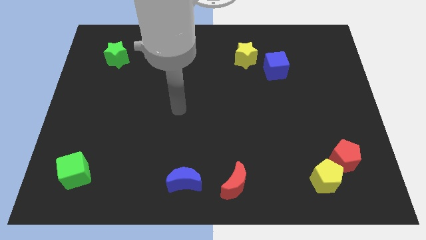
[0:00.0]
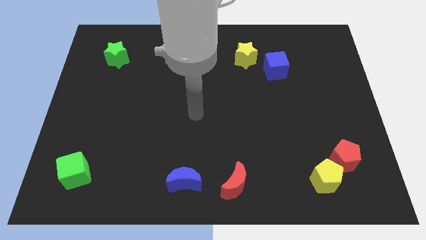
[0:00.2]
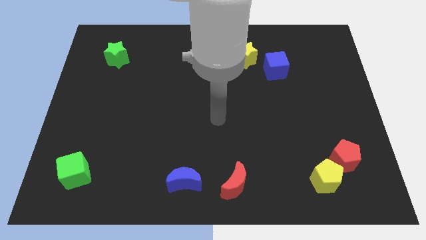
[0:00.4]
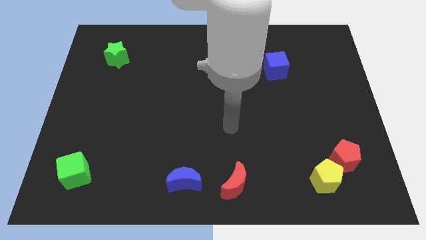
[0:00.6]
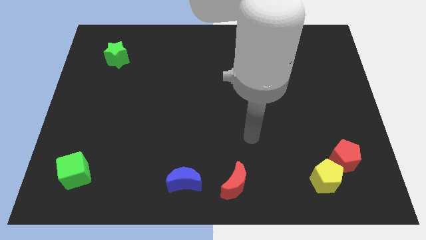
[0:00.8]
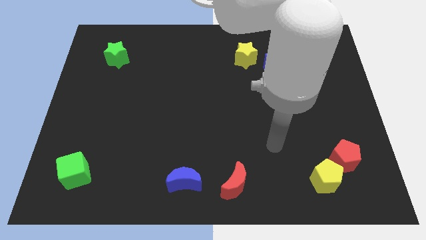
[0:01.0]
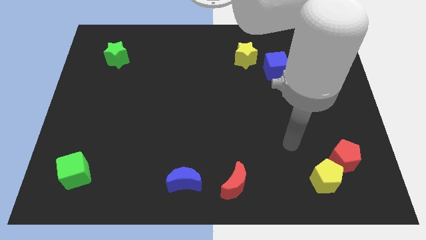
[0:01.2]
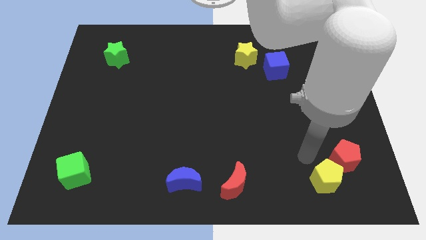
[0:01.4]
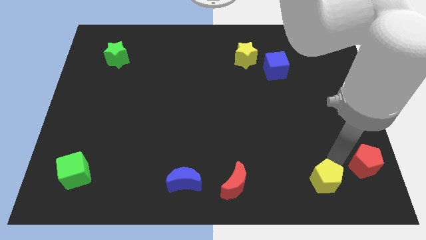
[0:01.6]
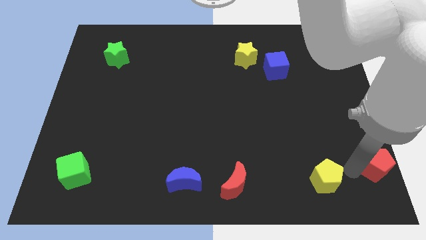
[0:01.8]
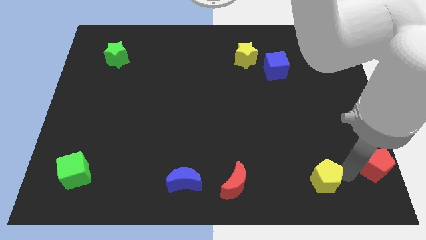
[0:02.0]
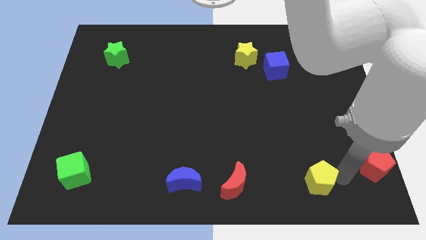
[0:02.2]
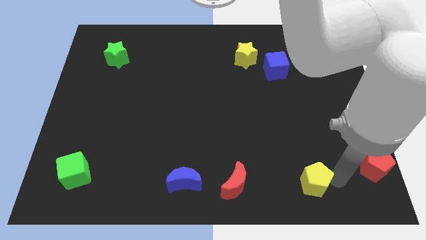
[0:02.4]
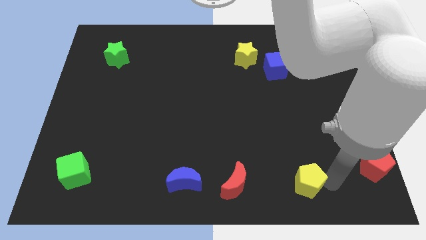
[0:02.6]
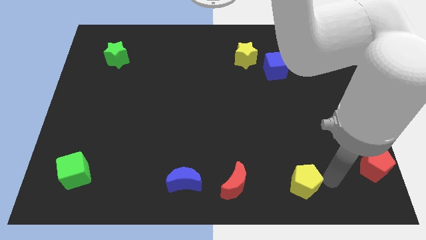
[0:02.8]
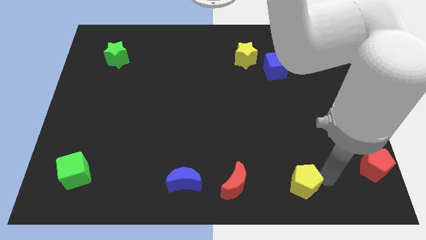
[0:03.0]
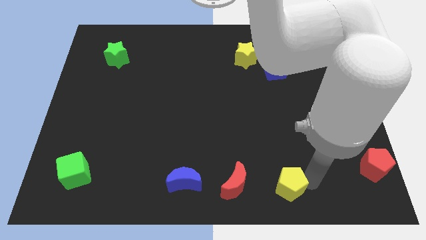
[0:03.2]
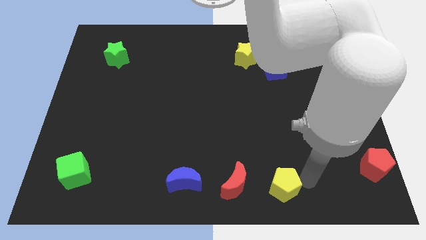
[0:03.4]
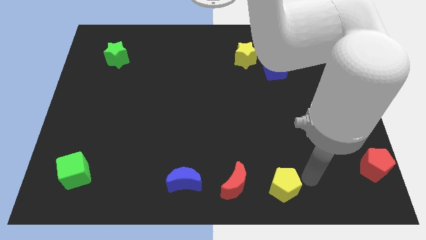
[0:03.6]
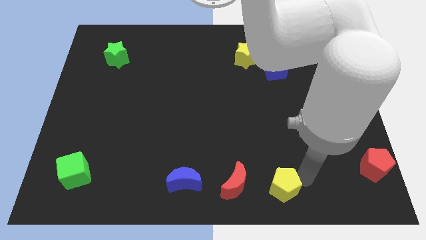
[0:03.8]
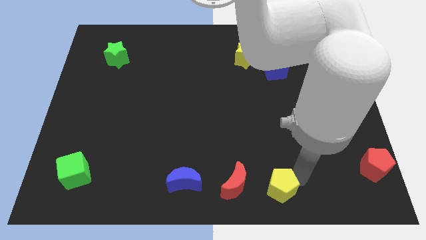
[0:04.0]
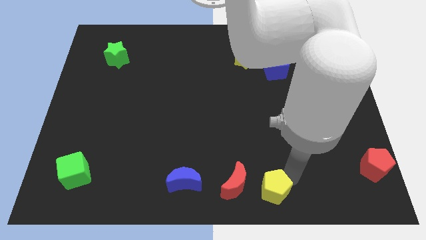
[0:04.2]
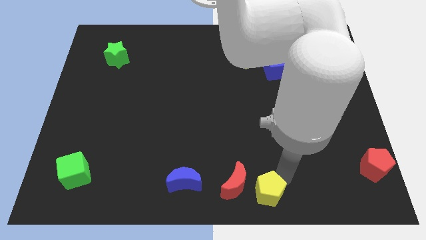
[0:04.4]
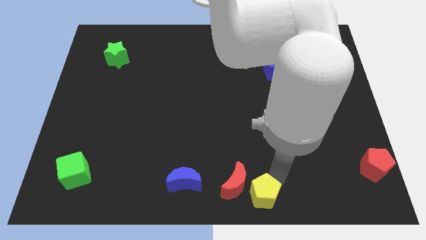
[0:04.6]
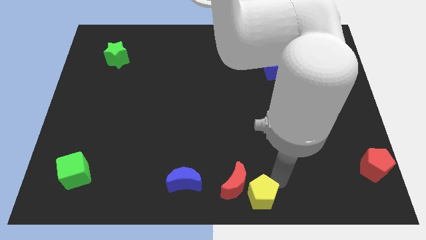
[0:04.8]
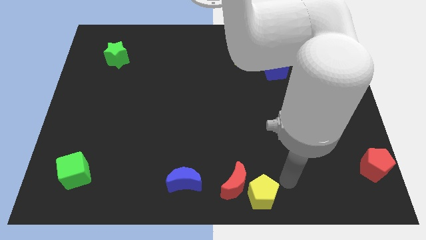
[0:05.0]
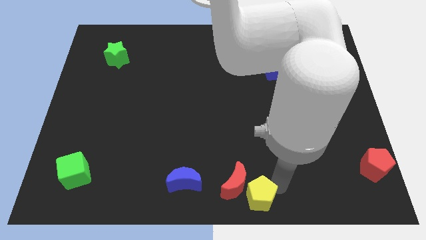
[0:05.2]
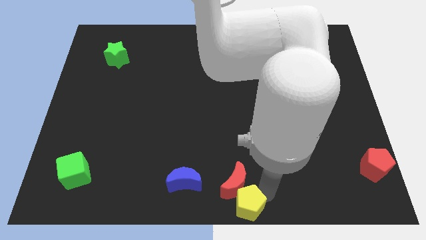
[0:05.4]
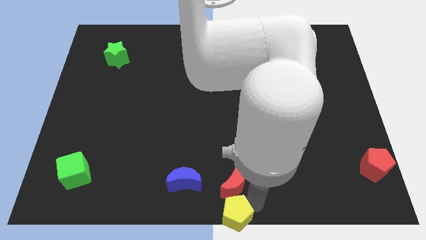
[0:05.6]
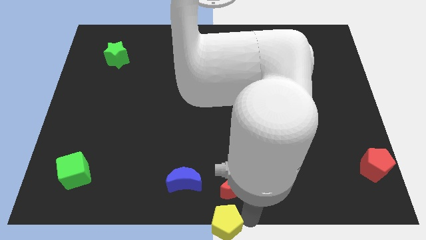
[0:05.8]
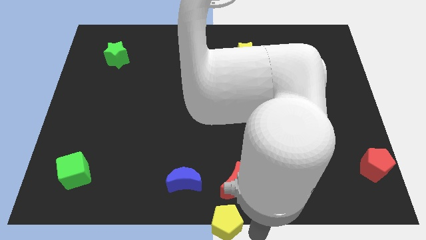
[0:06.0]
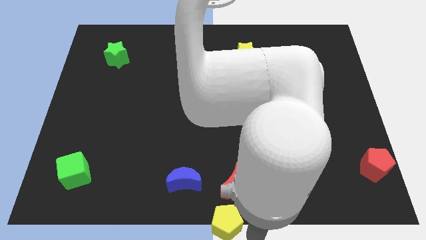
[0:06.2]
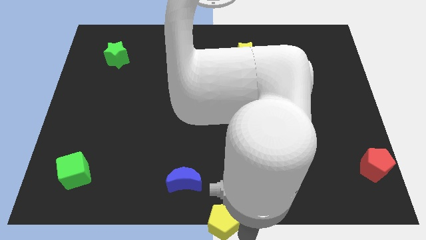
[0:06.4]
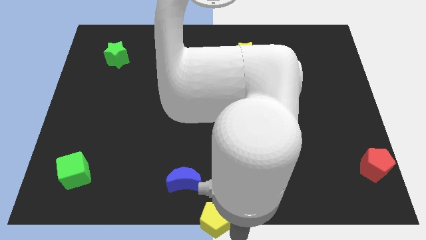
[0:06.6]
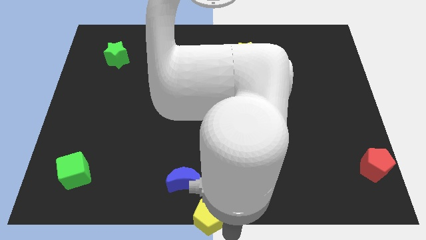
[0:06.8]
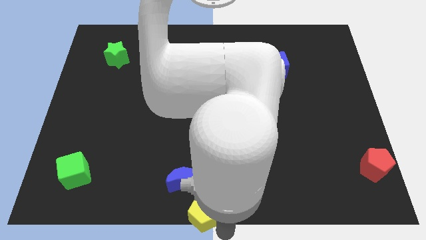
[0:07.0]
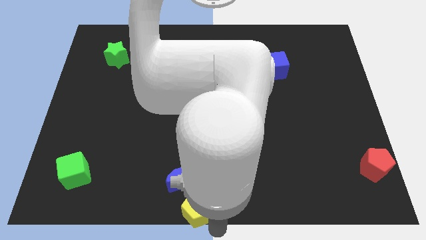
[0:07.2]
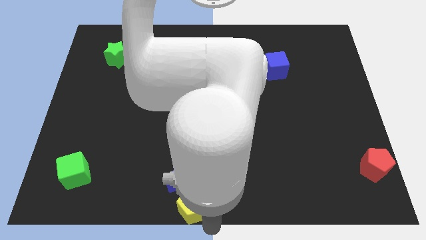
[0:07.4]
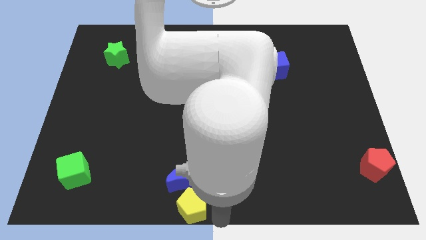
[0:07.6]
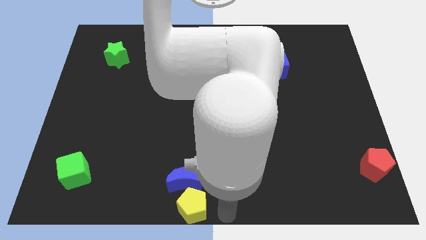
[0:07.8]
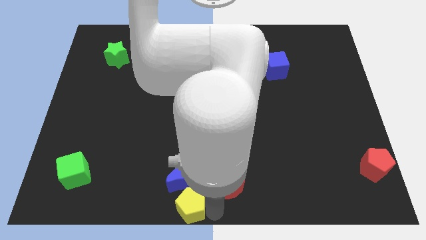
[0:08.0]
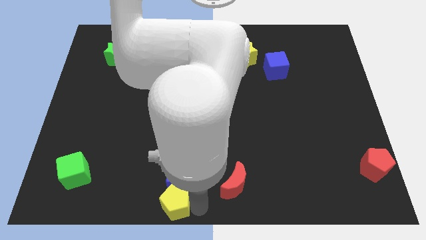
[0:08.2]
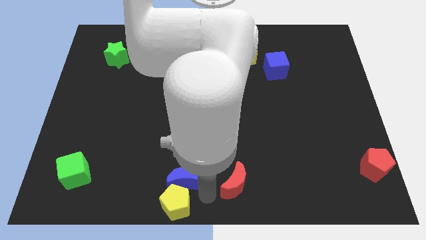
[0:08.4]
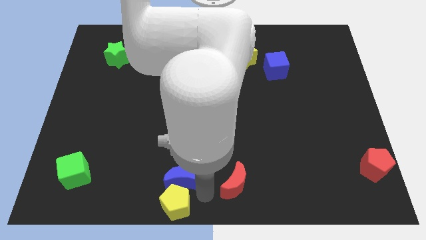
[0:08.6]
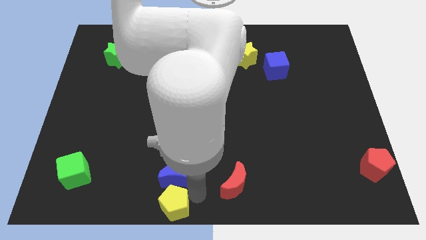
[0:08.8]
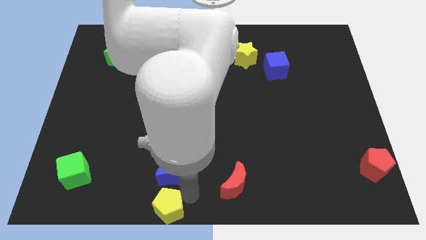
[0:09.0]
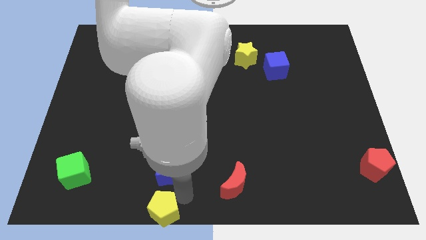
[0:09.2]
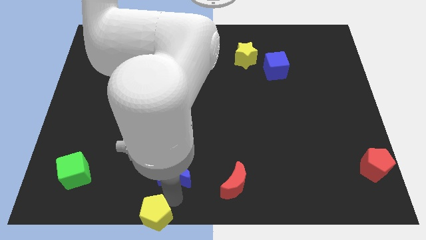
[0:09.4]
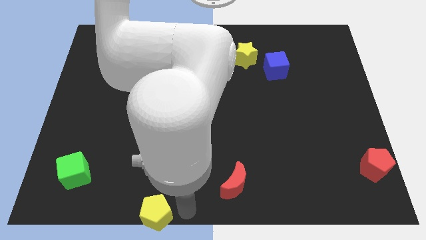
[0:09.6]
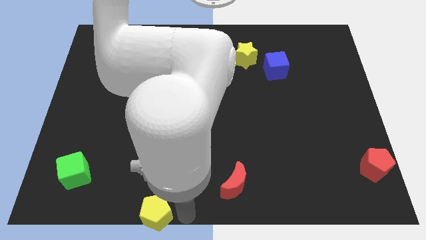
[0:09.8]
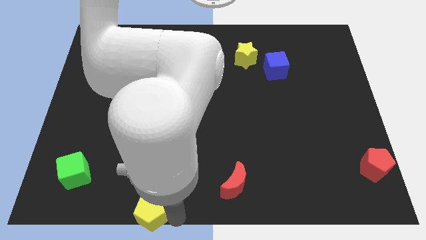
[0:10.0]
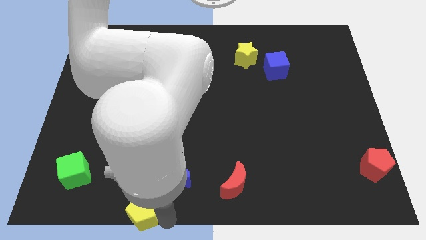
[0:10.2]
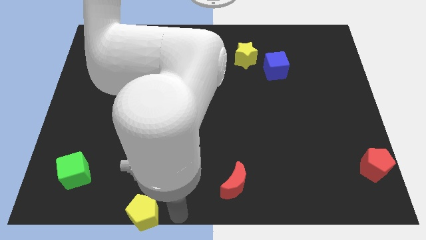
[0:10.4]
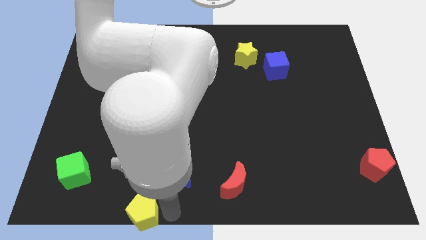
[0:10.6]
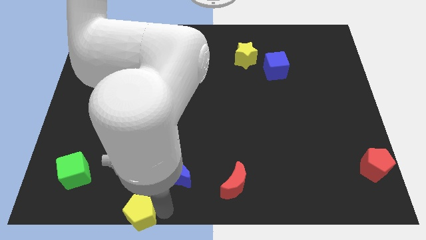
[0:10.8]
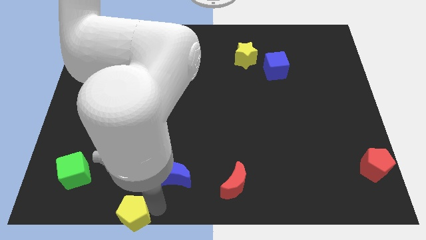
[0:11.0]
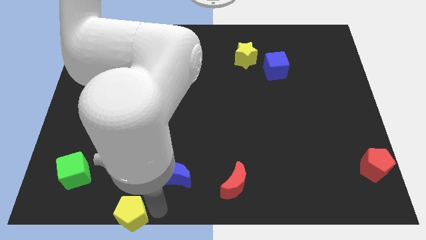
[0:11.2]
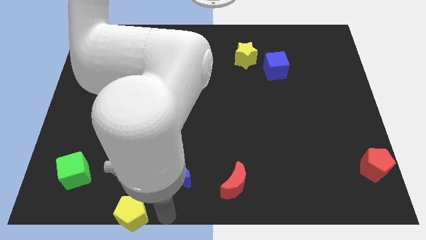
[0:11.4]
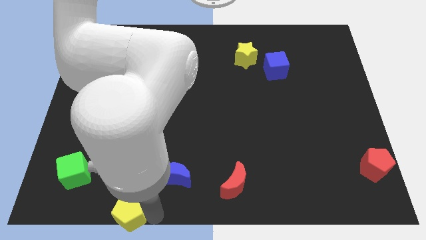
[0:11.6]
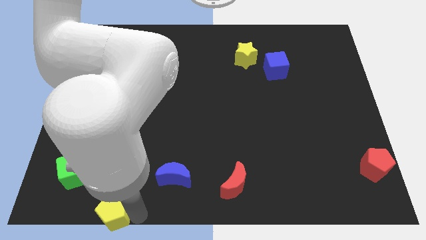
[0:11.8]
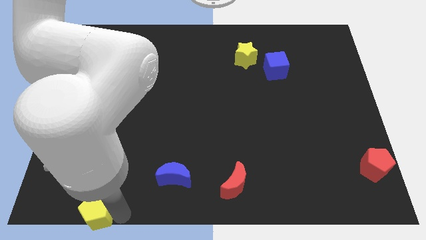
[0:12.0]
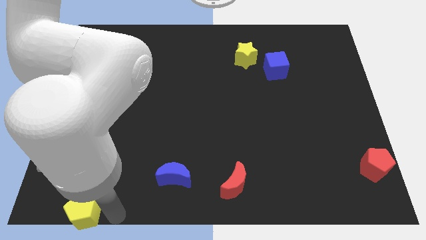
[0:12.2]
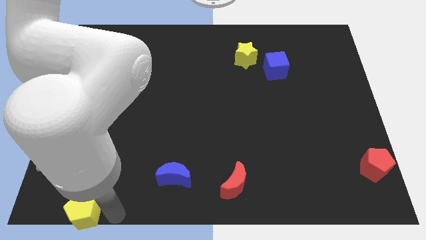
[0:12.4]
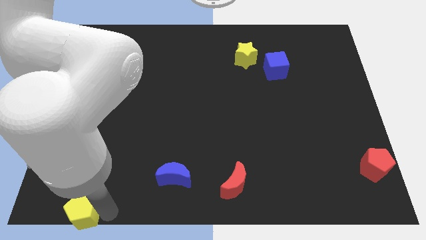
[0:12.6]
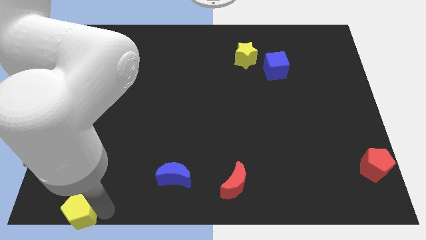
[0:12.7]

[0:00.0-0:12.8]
move the yellow pentagon to the bottom left

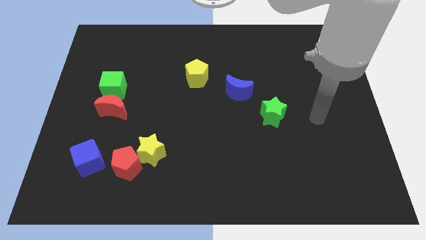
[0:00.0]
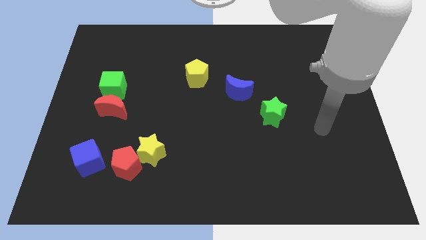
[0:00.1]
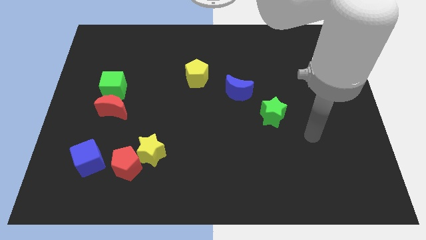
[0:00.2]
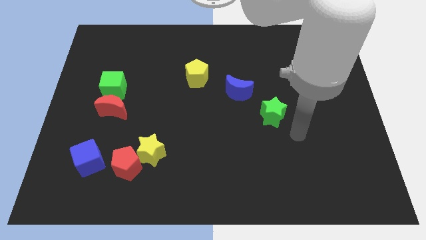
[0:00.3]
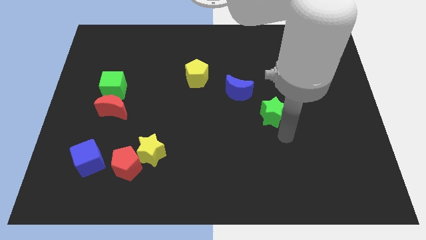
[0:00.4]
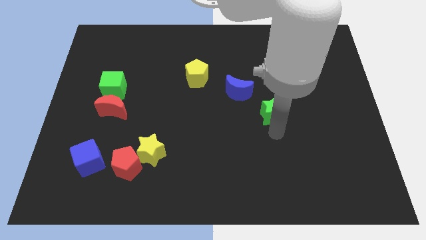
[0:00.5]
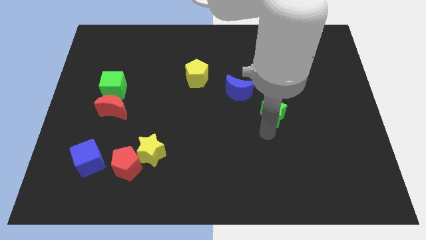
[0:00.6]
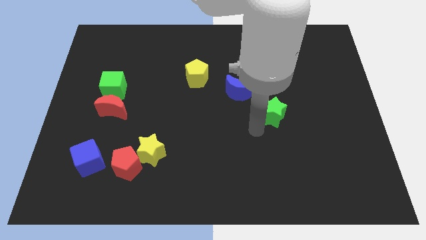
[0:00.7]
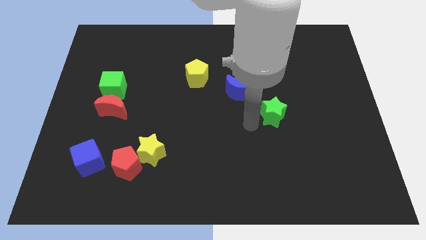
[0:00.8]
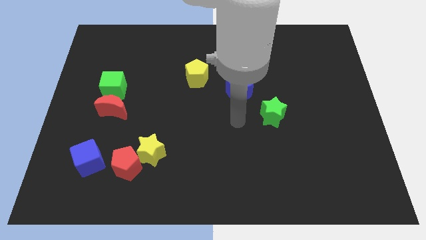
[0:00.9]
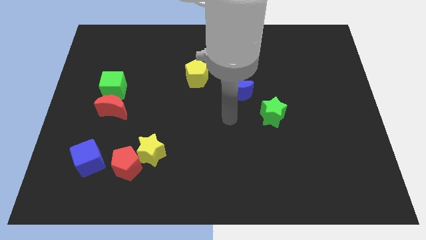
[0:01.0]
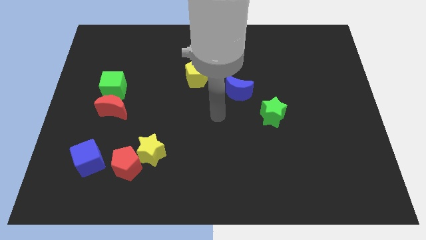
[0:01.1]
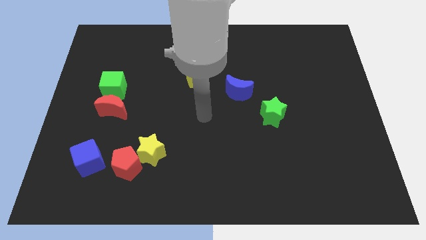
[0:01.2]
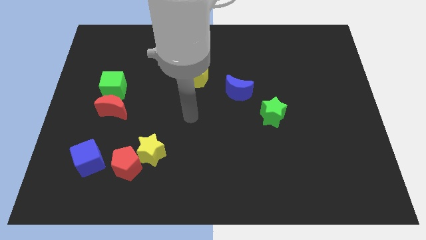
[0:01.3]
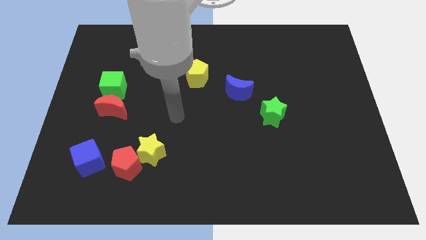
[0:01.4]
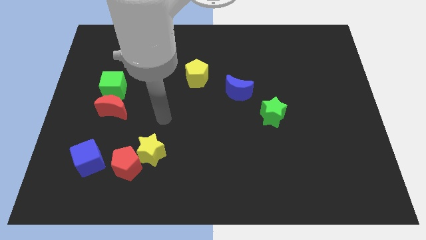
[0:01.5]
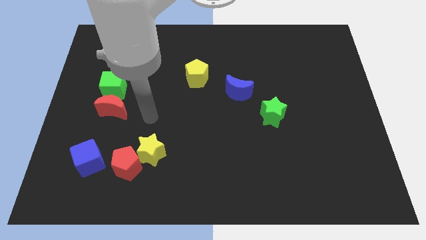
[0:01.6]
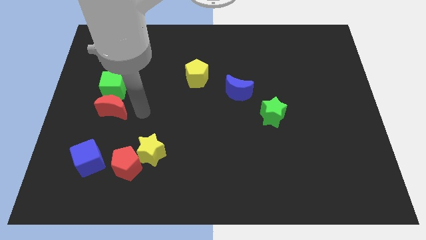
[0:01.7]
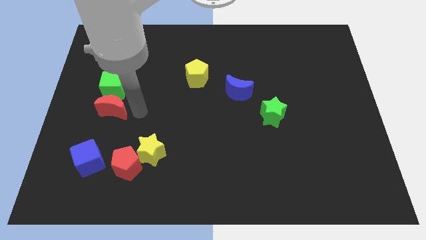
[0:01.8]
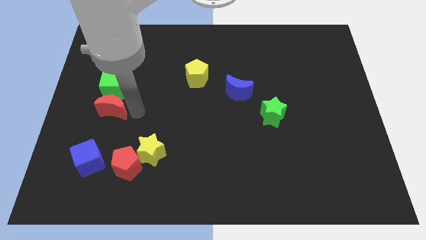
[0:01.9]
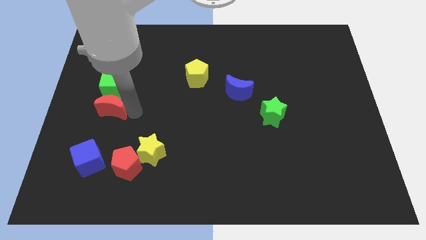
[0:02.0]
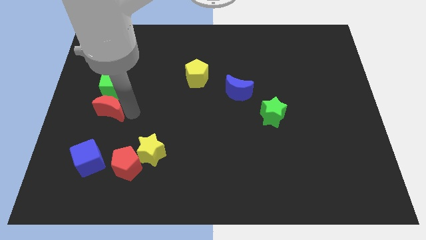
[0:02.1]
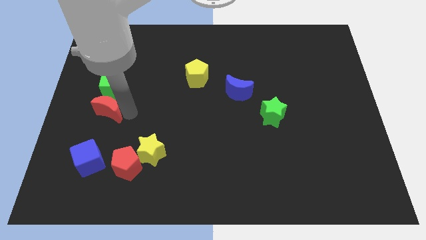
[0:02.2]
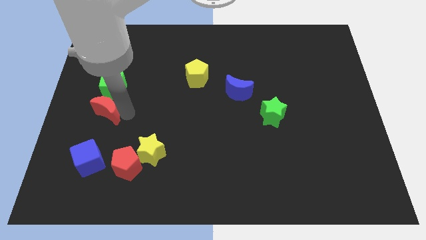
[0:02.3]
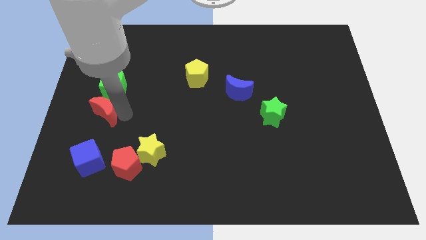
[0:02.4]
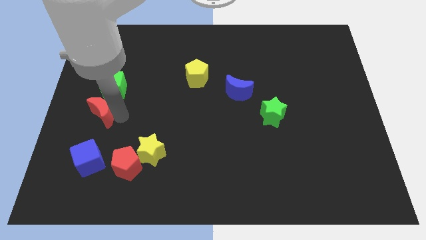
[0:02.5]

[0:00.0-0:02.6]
slide the red moon to the center left
